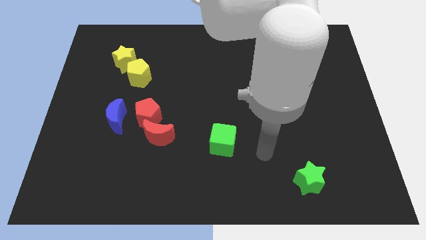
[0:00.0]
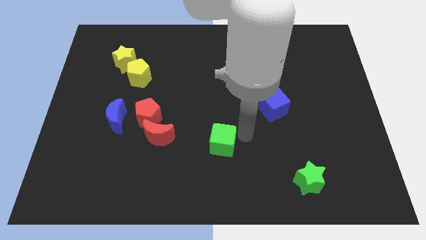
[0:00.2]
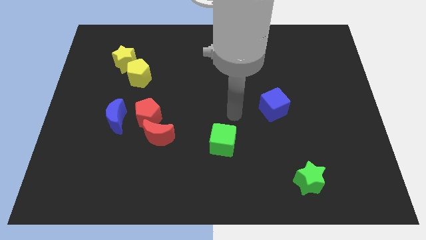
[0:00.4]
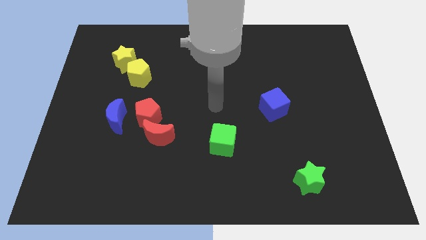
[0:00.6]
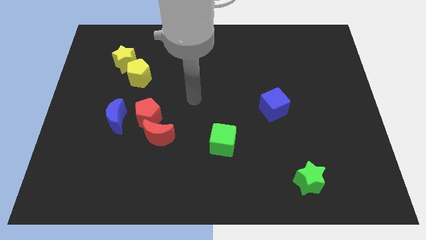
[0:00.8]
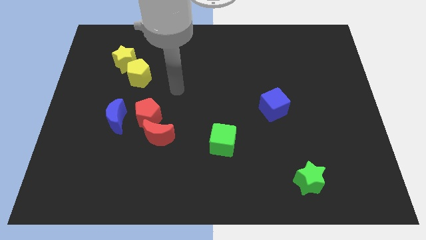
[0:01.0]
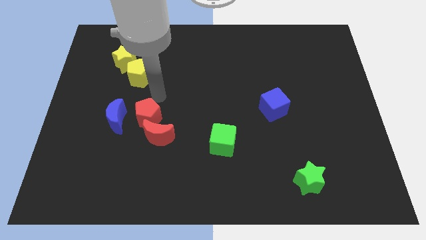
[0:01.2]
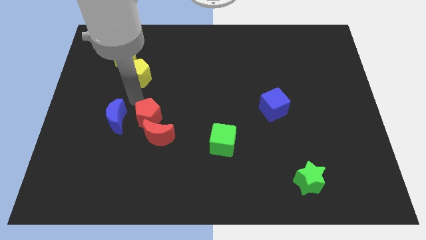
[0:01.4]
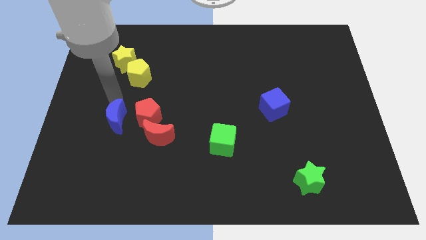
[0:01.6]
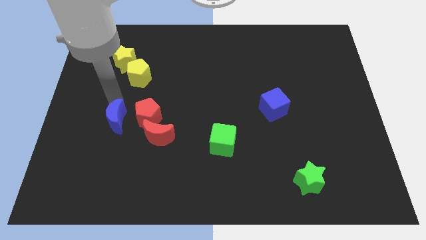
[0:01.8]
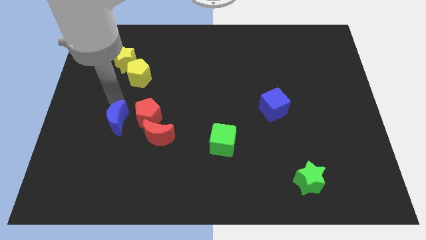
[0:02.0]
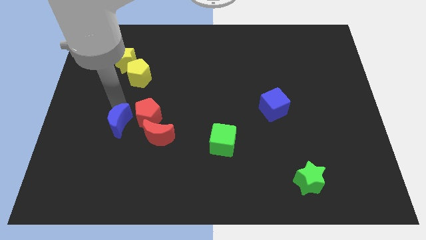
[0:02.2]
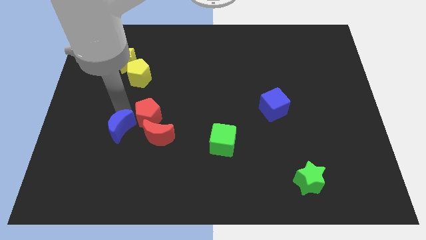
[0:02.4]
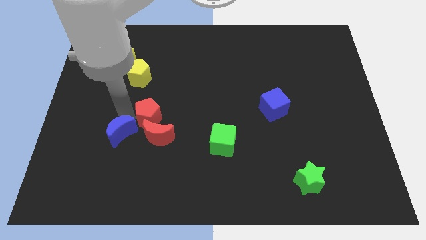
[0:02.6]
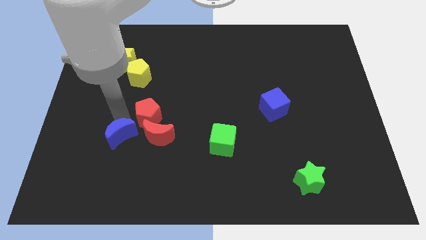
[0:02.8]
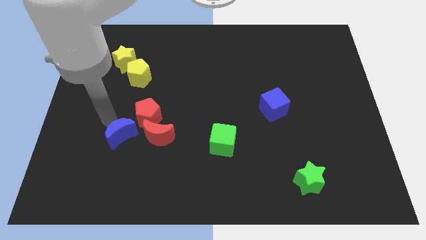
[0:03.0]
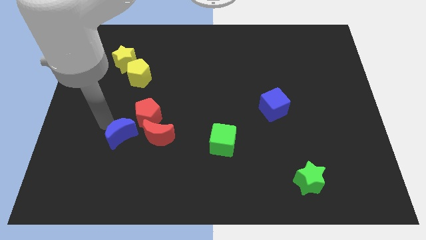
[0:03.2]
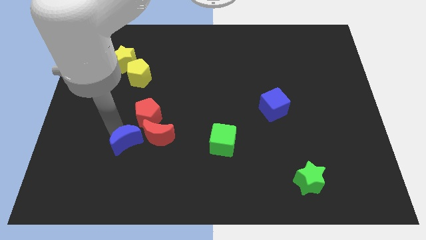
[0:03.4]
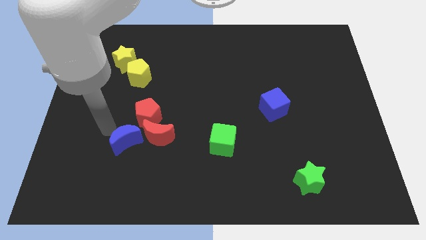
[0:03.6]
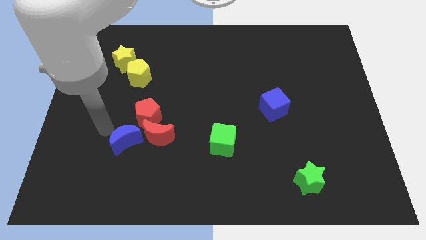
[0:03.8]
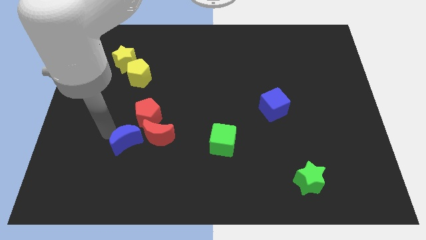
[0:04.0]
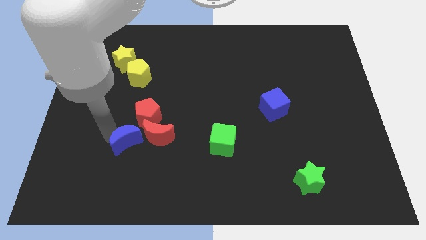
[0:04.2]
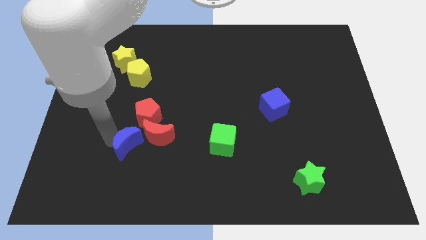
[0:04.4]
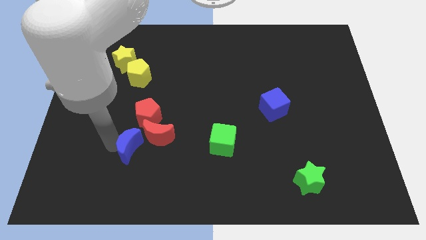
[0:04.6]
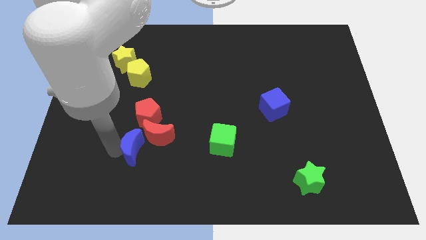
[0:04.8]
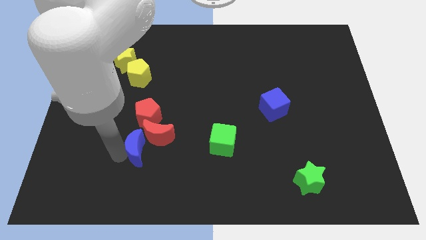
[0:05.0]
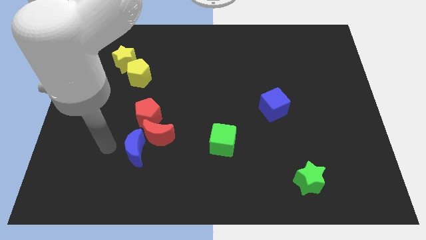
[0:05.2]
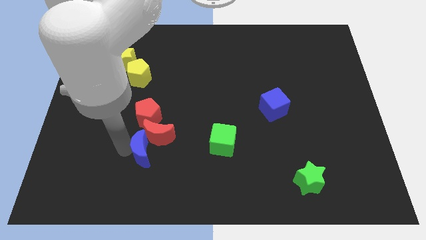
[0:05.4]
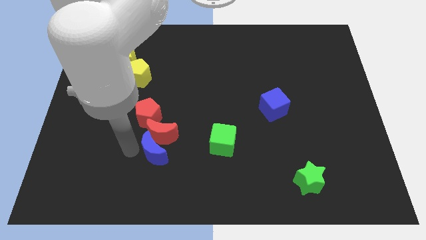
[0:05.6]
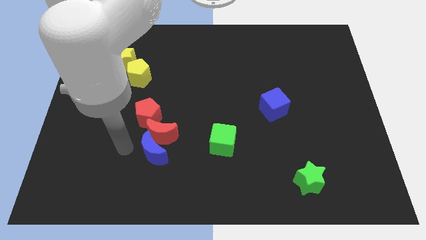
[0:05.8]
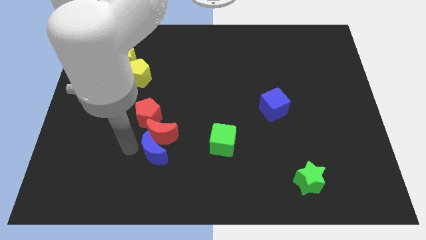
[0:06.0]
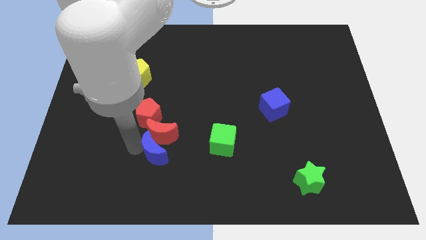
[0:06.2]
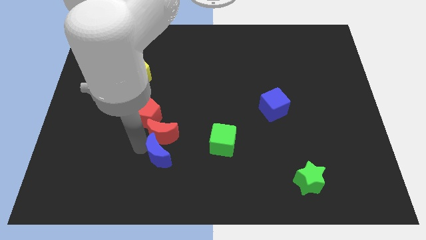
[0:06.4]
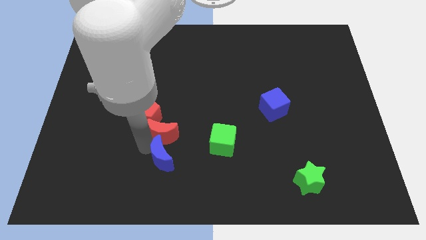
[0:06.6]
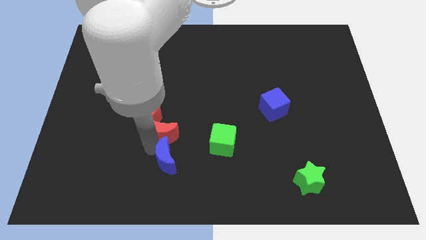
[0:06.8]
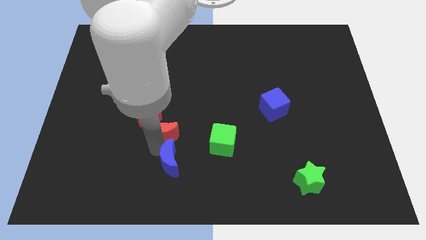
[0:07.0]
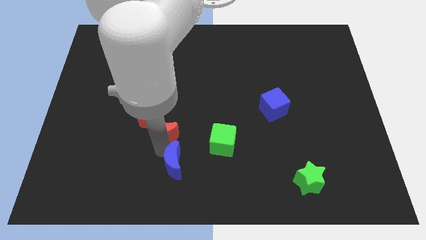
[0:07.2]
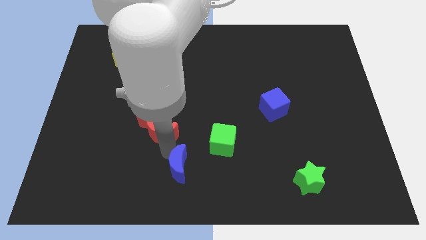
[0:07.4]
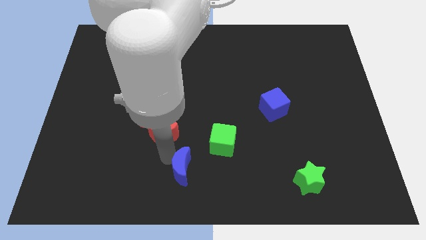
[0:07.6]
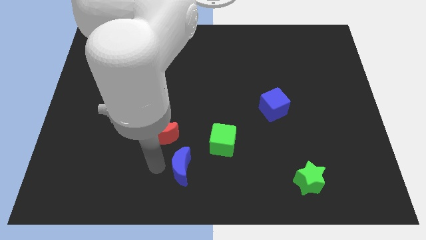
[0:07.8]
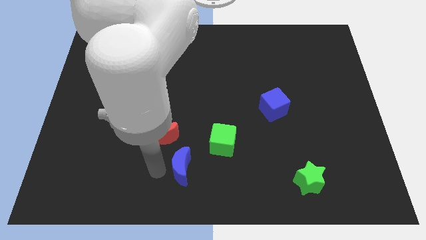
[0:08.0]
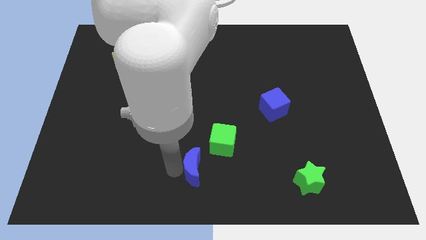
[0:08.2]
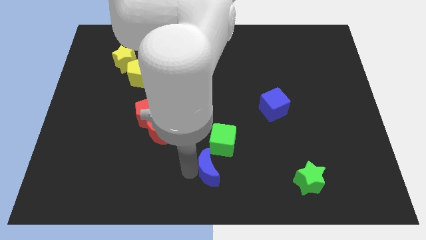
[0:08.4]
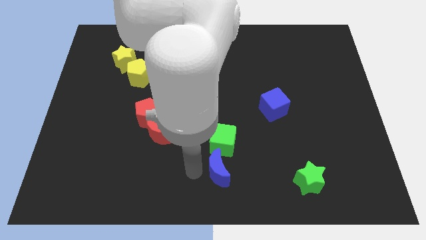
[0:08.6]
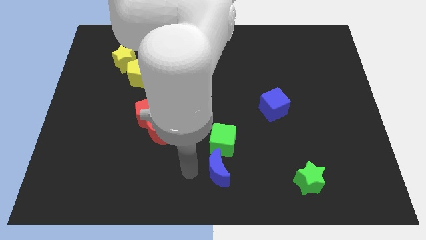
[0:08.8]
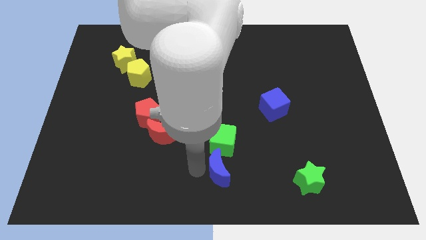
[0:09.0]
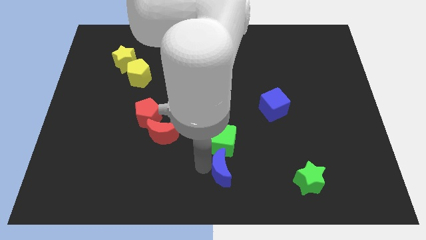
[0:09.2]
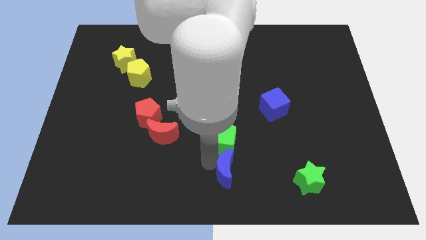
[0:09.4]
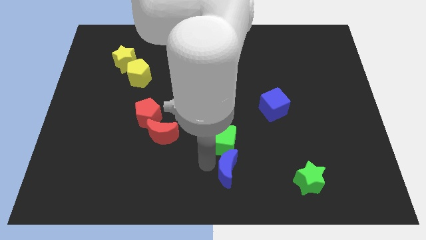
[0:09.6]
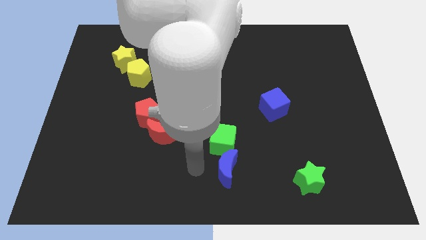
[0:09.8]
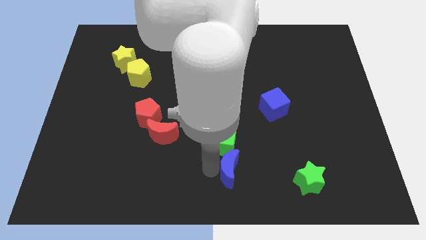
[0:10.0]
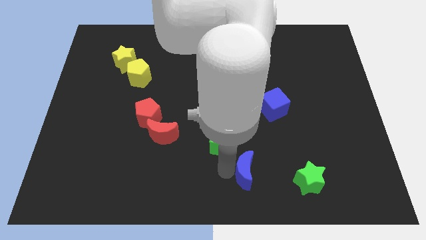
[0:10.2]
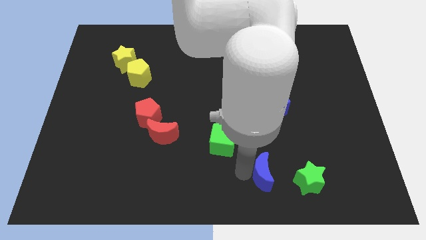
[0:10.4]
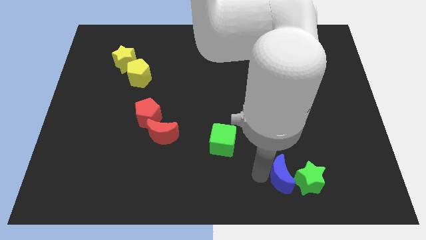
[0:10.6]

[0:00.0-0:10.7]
put the blue moon to the green star

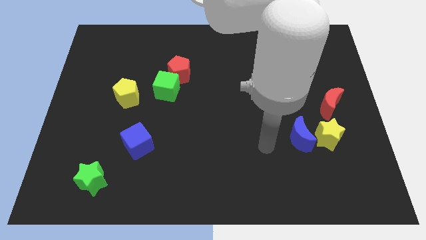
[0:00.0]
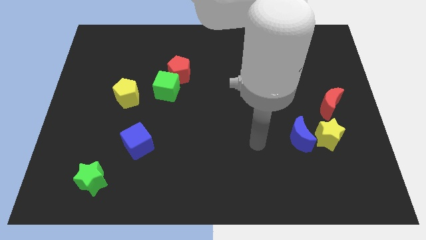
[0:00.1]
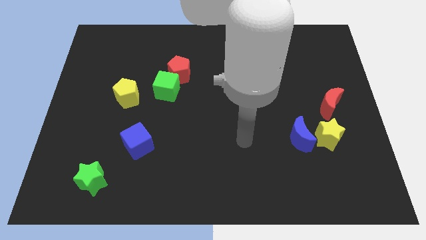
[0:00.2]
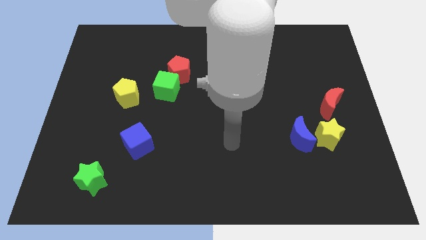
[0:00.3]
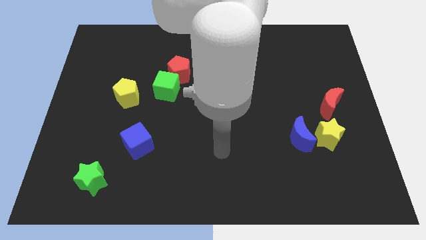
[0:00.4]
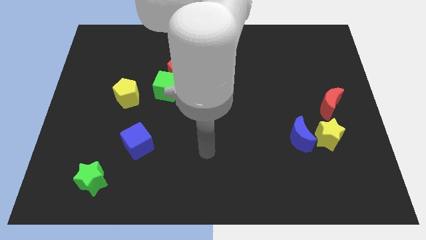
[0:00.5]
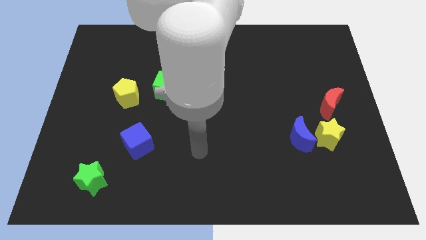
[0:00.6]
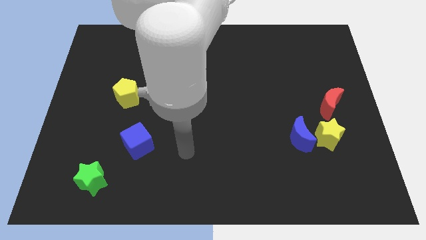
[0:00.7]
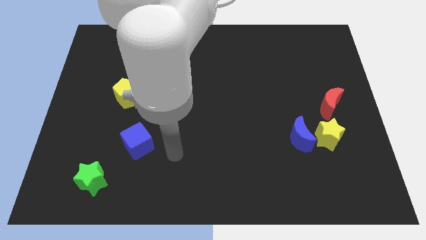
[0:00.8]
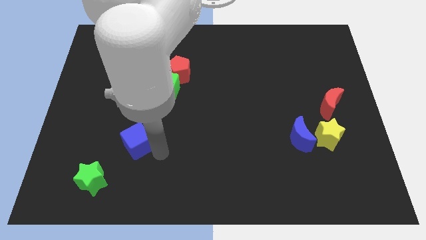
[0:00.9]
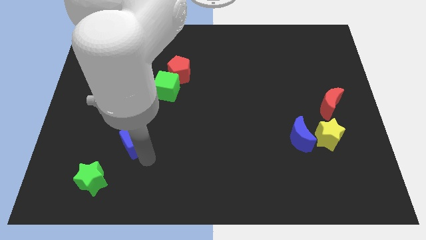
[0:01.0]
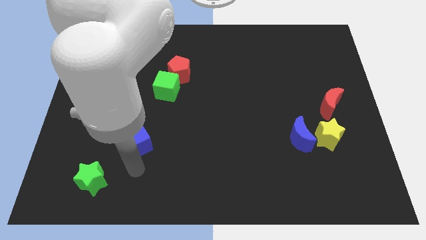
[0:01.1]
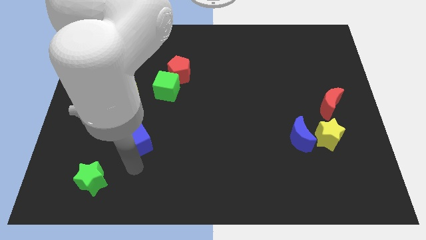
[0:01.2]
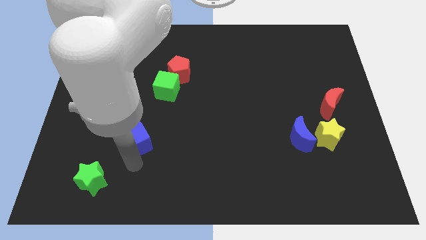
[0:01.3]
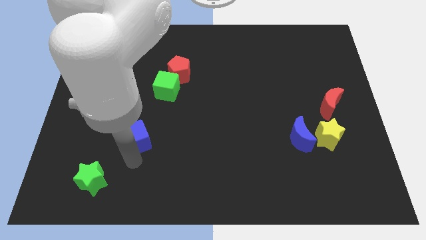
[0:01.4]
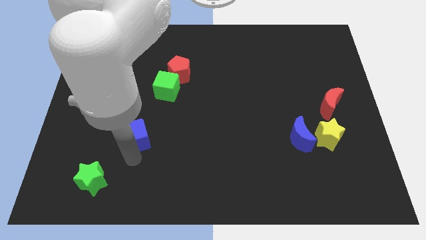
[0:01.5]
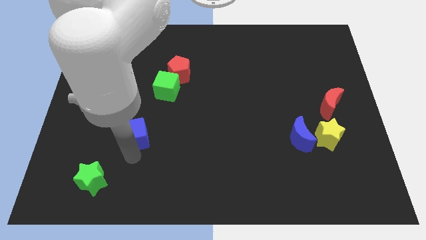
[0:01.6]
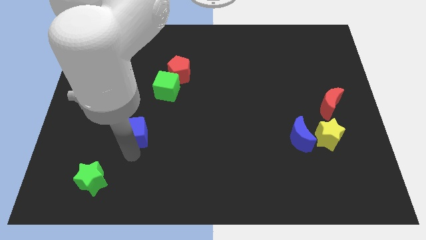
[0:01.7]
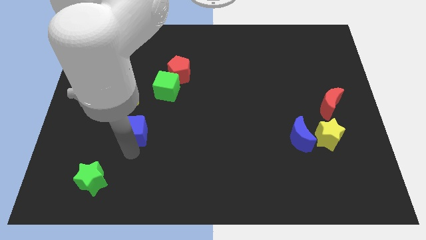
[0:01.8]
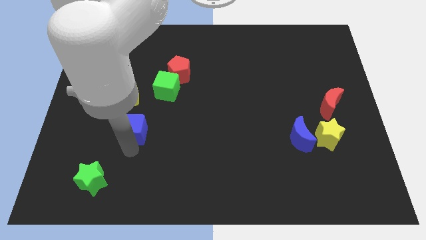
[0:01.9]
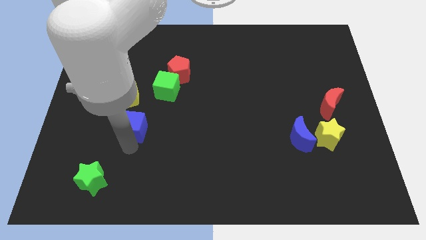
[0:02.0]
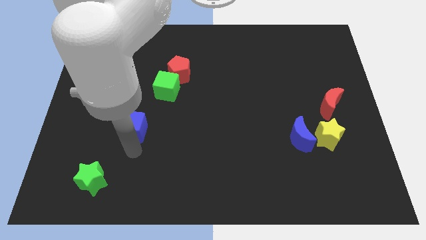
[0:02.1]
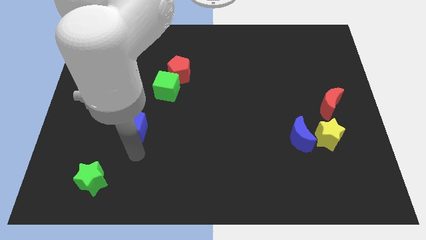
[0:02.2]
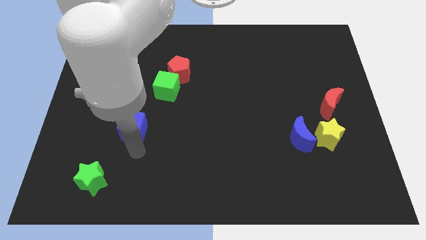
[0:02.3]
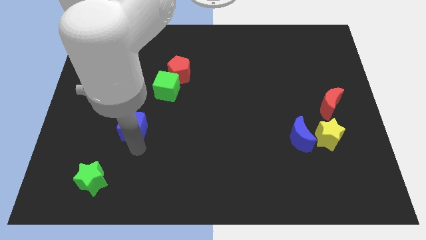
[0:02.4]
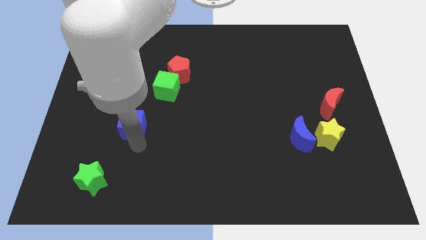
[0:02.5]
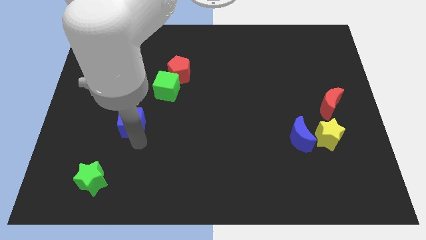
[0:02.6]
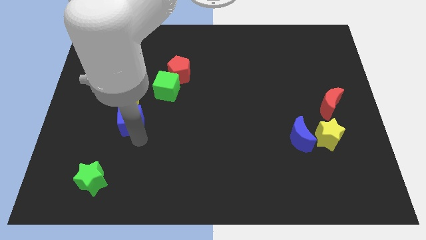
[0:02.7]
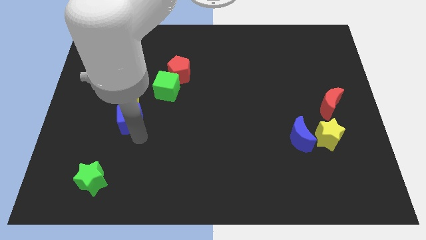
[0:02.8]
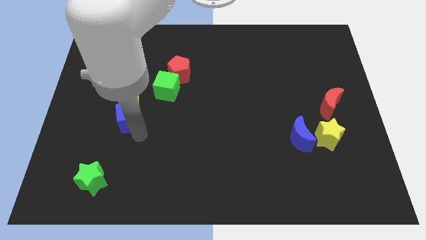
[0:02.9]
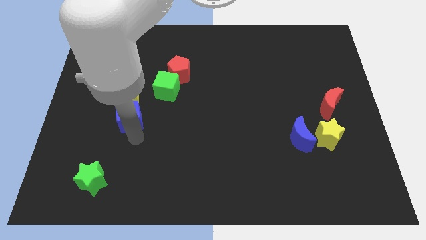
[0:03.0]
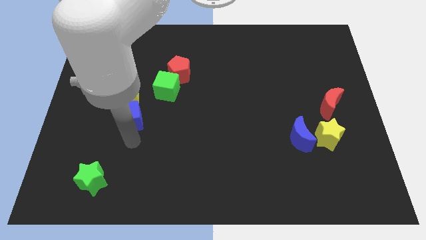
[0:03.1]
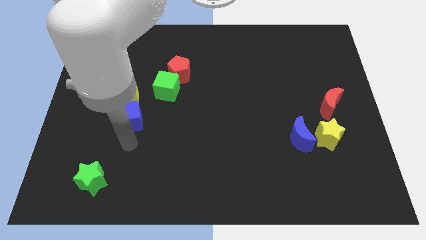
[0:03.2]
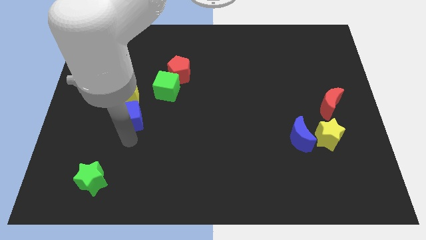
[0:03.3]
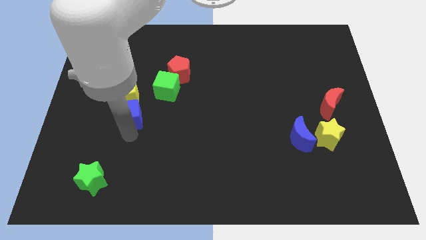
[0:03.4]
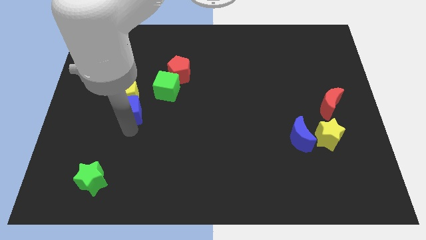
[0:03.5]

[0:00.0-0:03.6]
push the blue cube close to the yellow pentagon
